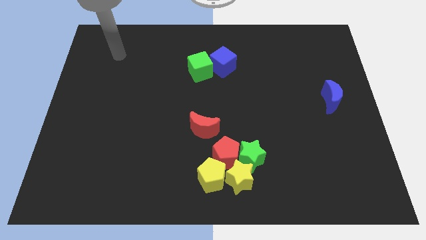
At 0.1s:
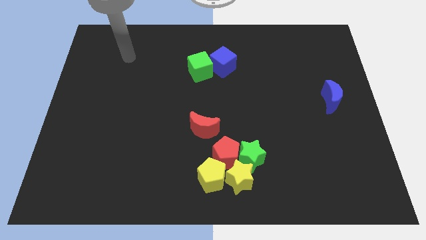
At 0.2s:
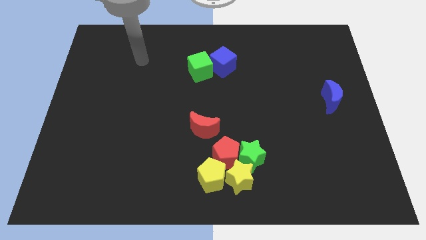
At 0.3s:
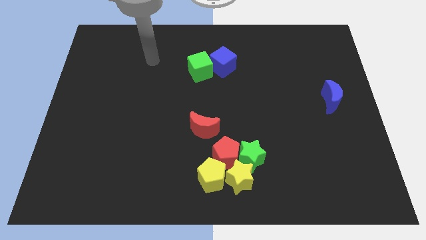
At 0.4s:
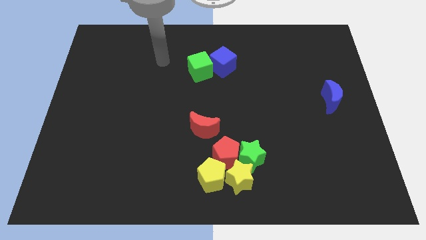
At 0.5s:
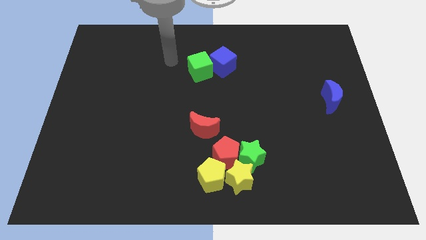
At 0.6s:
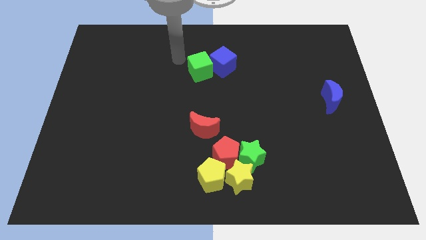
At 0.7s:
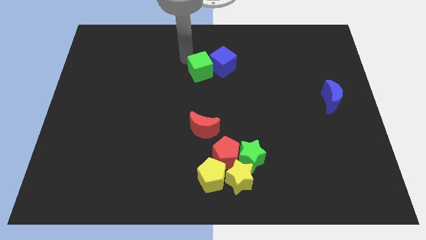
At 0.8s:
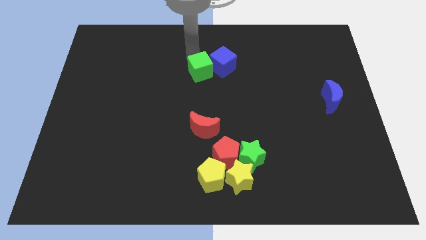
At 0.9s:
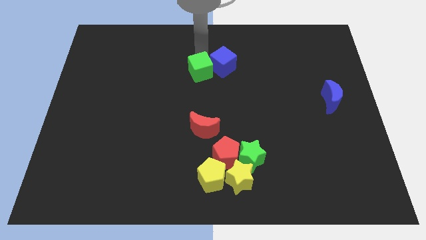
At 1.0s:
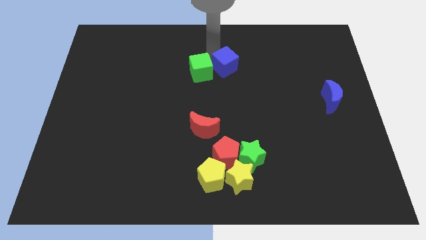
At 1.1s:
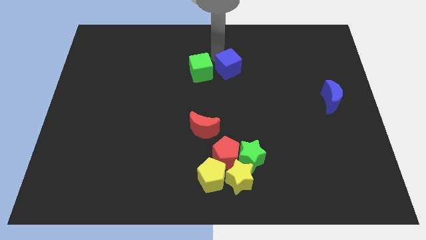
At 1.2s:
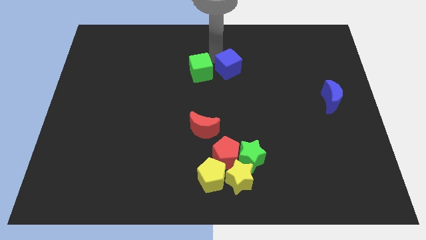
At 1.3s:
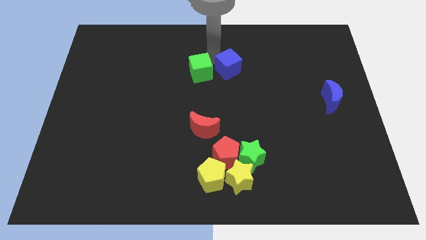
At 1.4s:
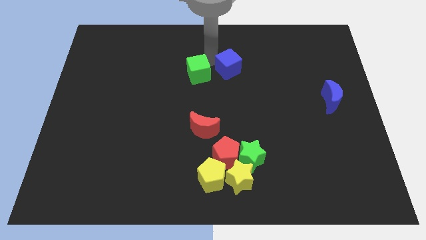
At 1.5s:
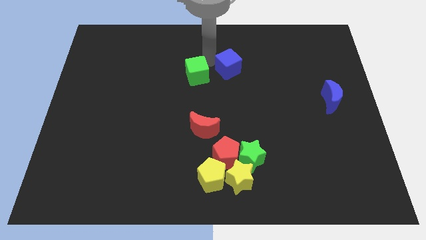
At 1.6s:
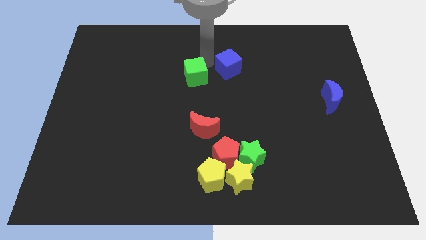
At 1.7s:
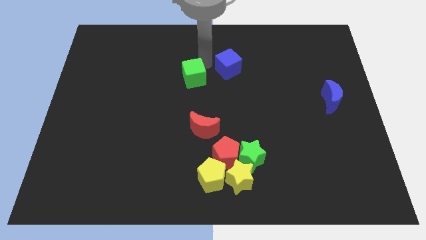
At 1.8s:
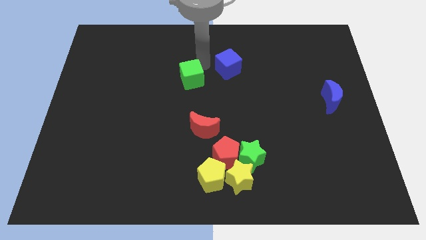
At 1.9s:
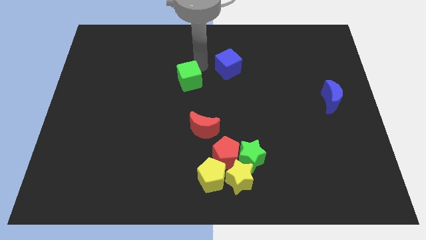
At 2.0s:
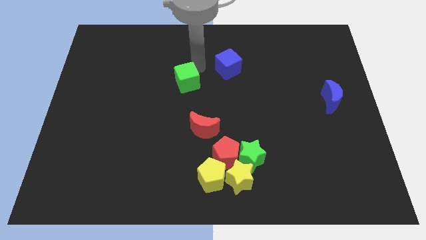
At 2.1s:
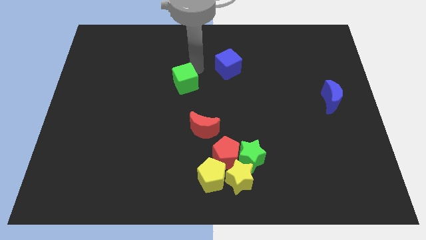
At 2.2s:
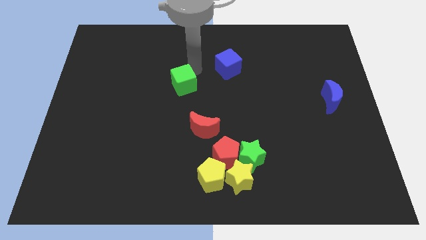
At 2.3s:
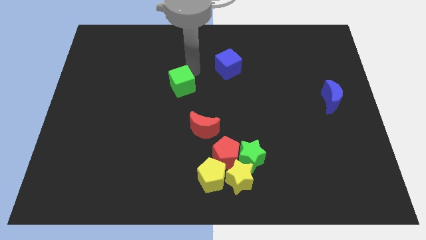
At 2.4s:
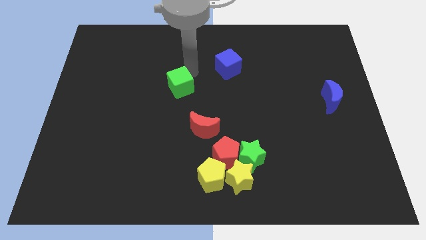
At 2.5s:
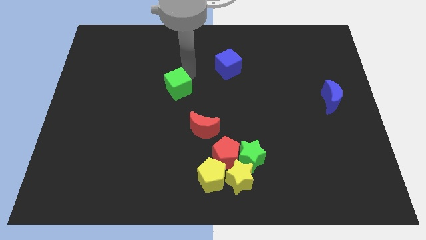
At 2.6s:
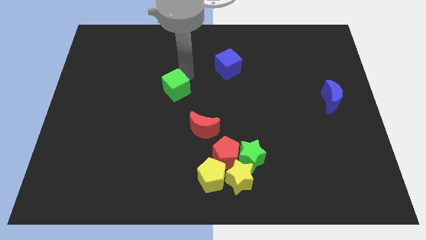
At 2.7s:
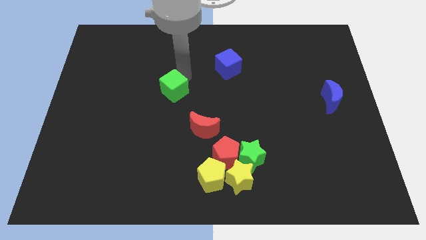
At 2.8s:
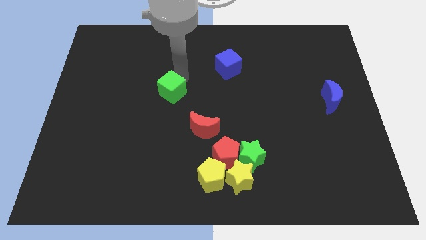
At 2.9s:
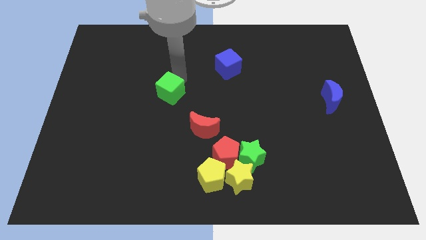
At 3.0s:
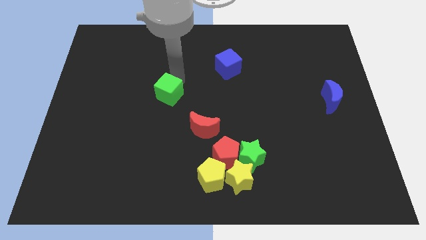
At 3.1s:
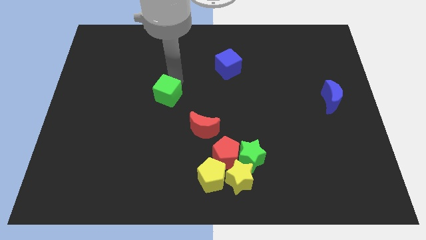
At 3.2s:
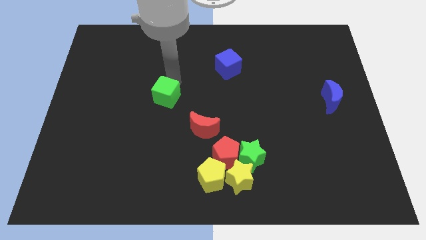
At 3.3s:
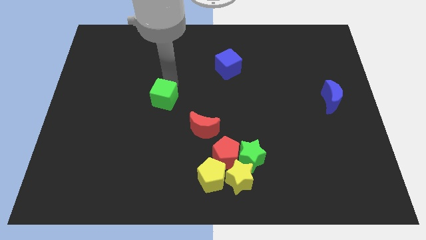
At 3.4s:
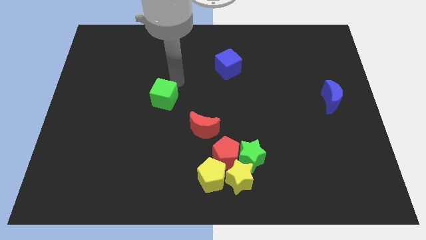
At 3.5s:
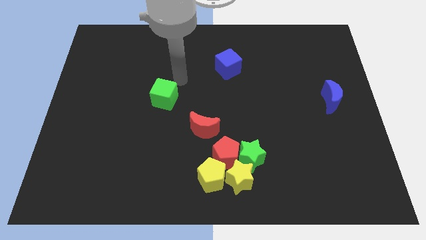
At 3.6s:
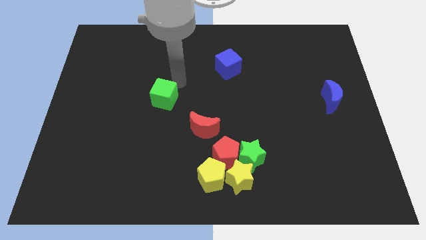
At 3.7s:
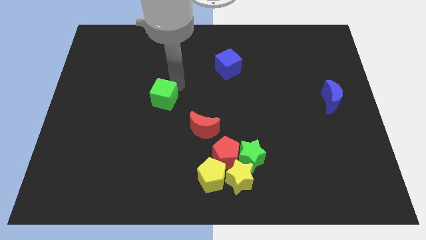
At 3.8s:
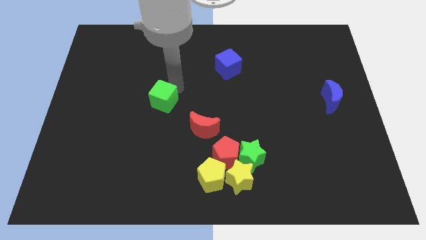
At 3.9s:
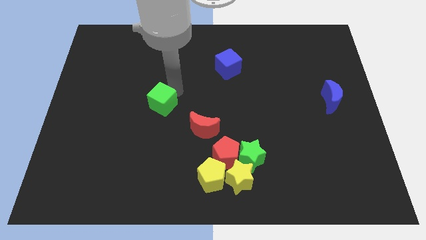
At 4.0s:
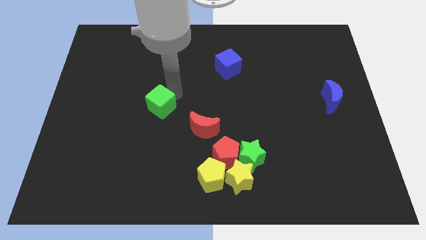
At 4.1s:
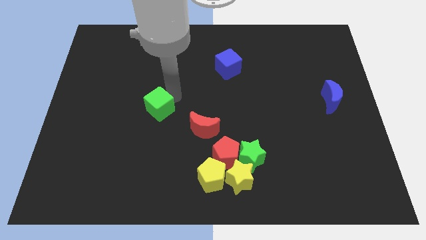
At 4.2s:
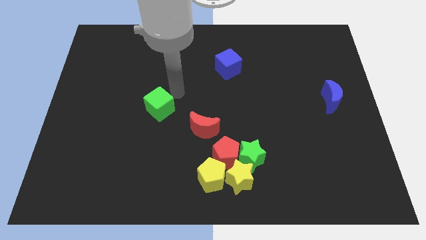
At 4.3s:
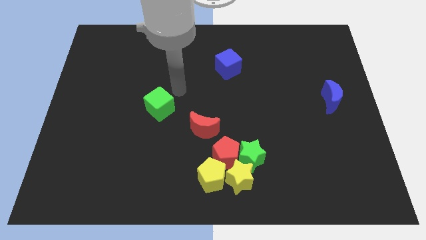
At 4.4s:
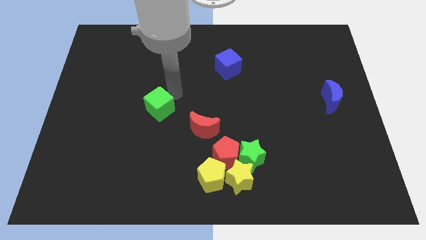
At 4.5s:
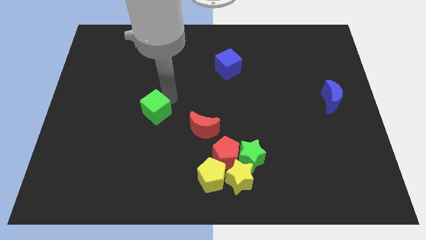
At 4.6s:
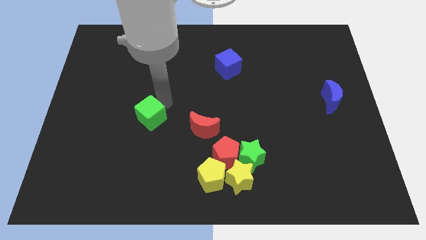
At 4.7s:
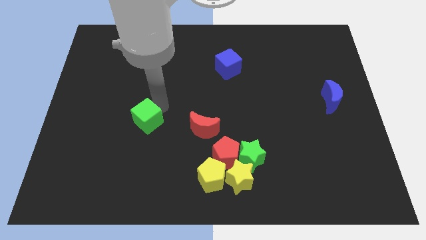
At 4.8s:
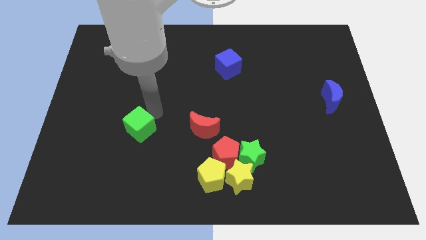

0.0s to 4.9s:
move the green cube down and left diagonally

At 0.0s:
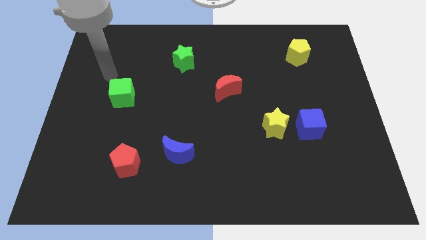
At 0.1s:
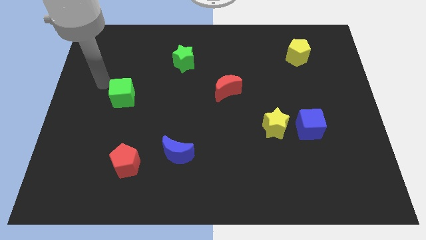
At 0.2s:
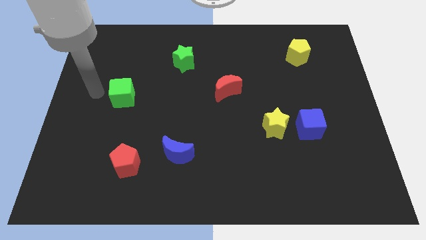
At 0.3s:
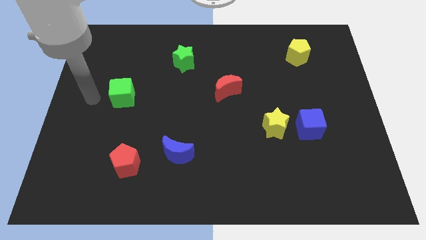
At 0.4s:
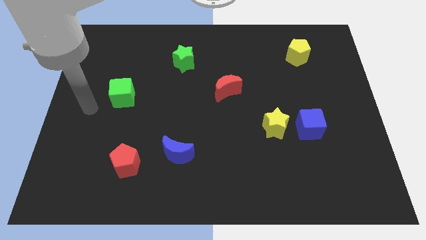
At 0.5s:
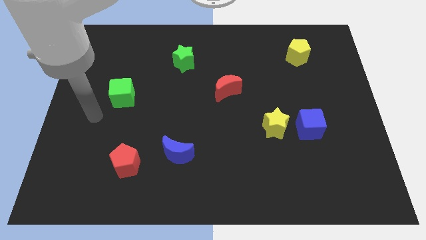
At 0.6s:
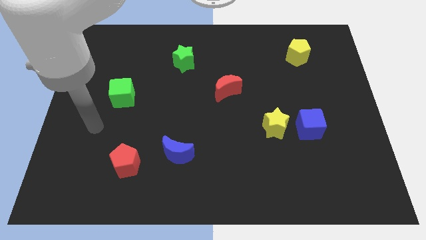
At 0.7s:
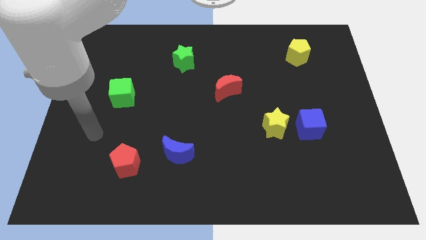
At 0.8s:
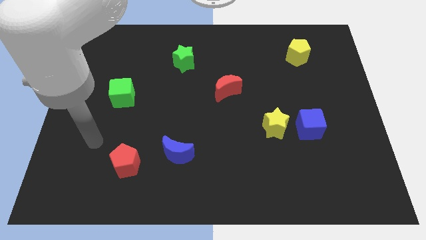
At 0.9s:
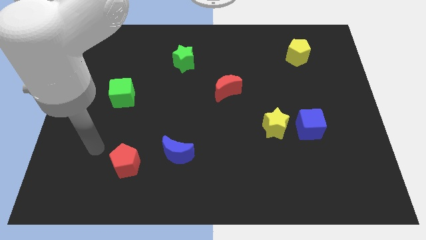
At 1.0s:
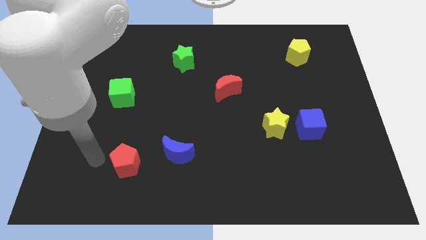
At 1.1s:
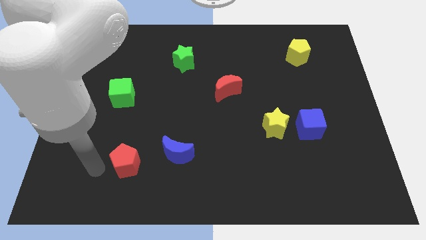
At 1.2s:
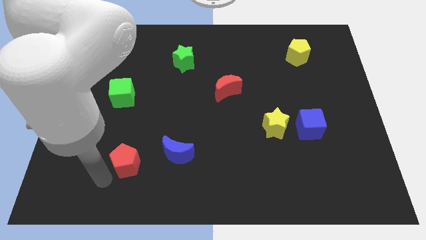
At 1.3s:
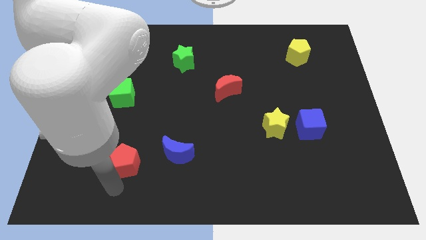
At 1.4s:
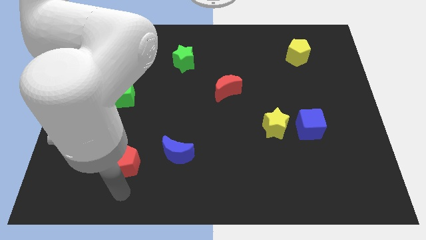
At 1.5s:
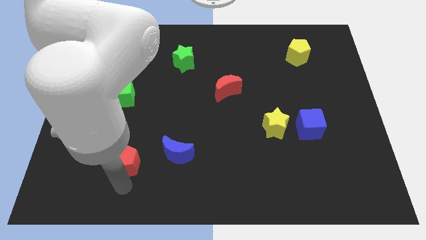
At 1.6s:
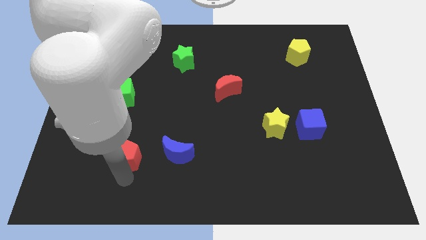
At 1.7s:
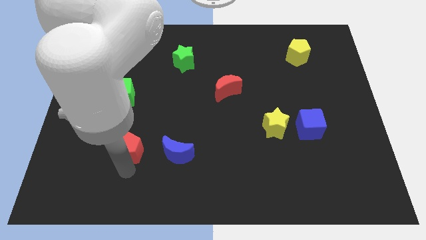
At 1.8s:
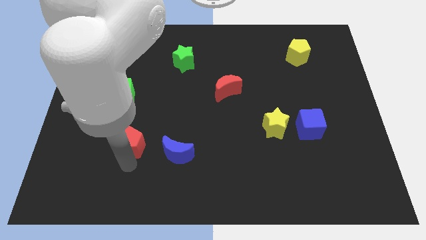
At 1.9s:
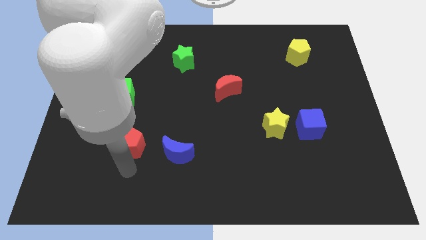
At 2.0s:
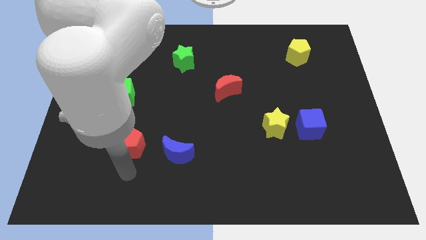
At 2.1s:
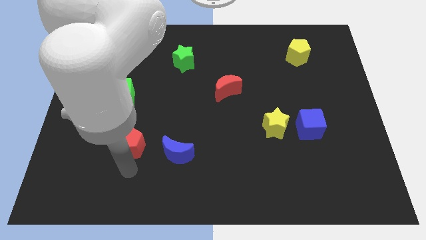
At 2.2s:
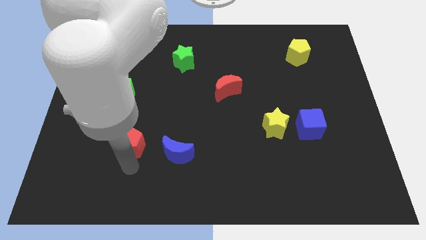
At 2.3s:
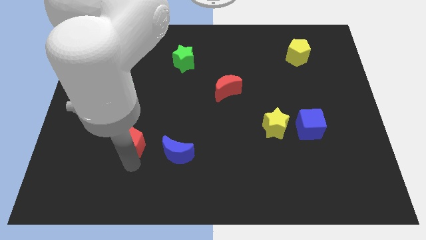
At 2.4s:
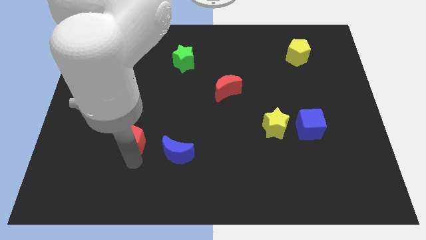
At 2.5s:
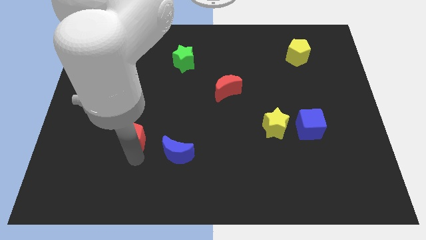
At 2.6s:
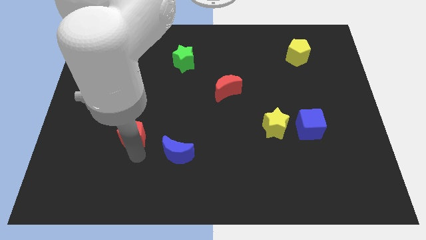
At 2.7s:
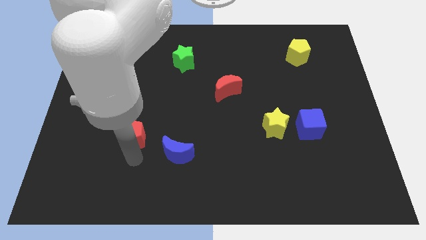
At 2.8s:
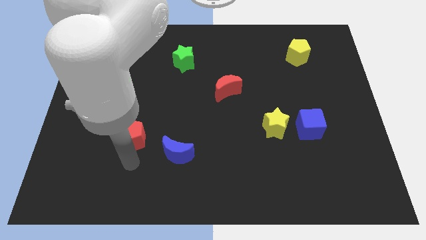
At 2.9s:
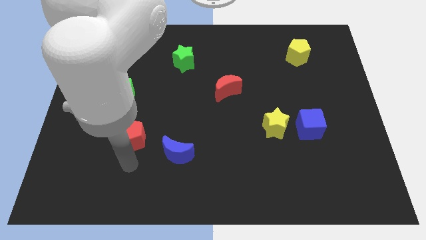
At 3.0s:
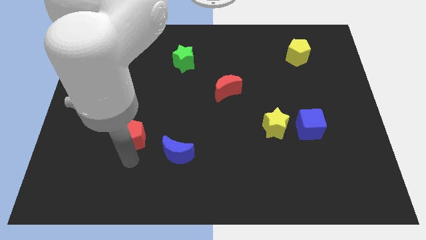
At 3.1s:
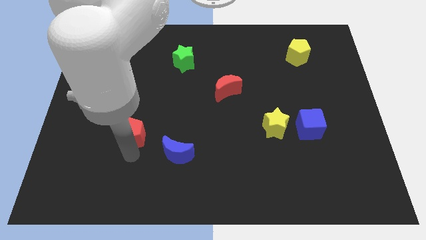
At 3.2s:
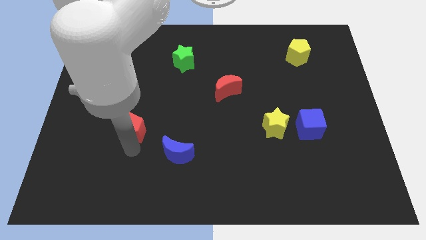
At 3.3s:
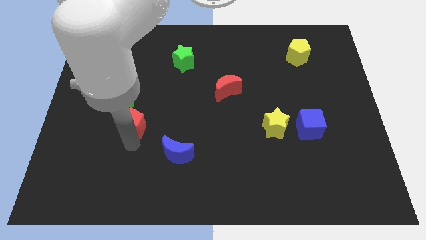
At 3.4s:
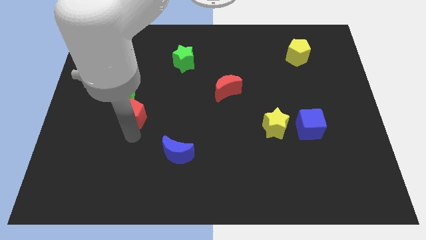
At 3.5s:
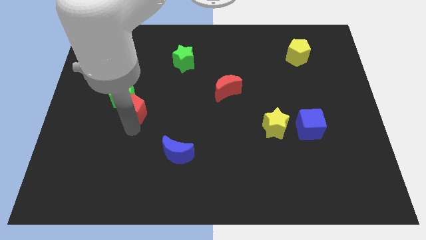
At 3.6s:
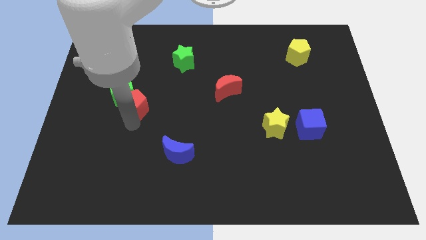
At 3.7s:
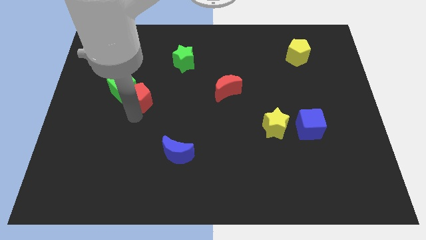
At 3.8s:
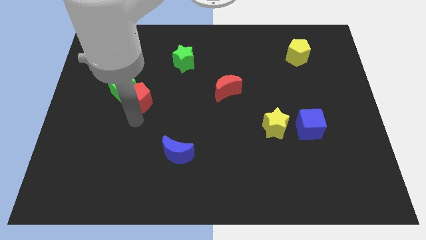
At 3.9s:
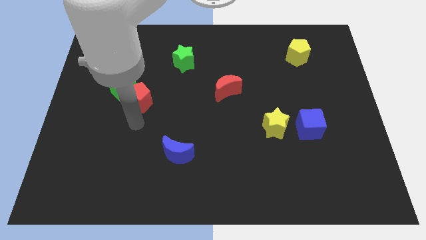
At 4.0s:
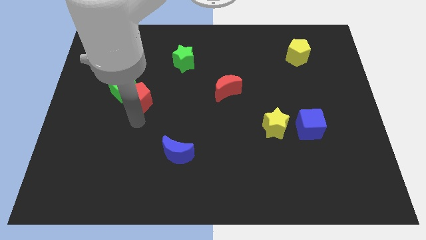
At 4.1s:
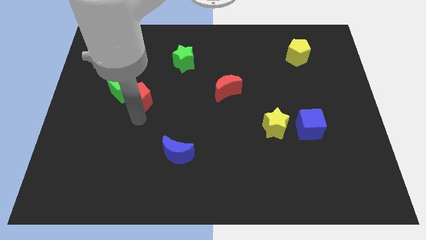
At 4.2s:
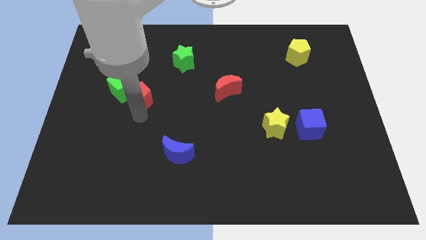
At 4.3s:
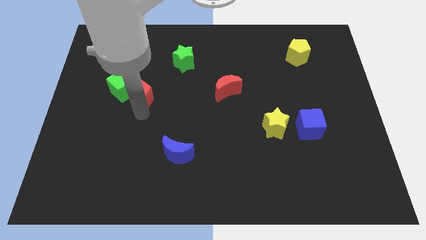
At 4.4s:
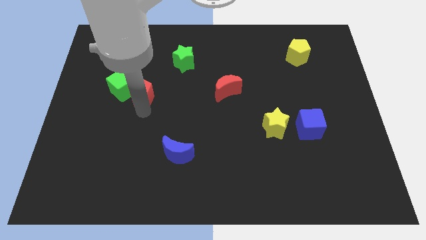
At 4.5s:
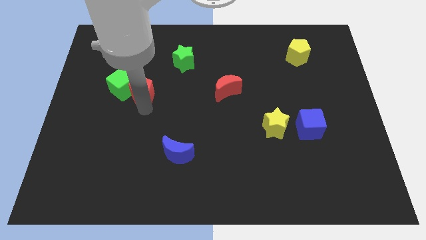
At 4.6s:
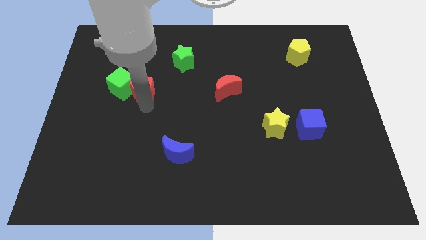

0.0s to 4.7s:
move the red pentagon upwards
